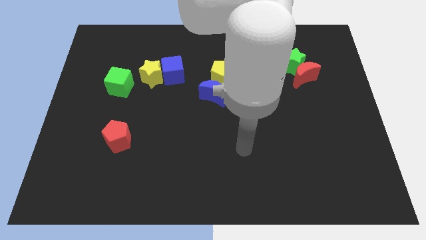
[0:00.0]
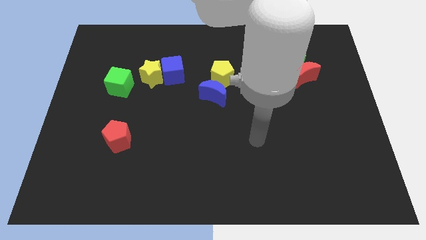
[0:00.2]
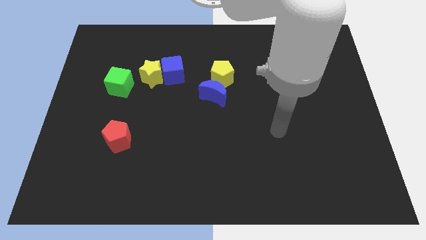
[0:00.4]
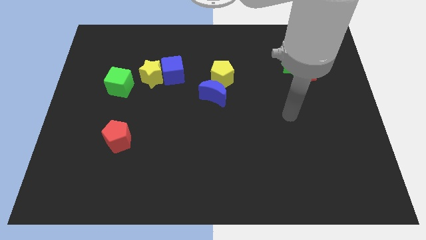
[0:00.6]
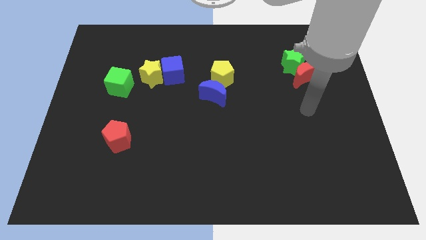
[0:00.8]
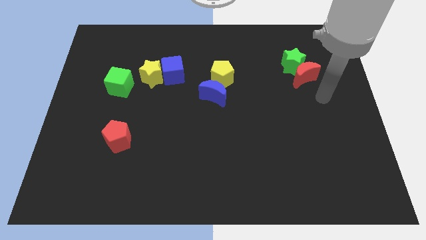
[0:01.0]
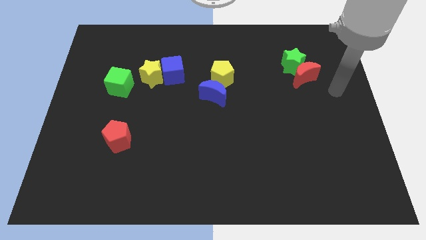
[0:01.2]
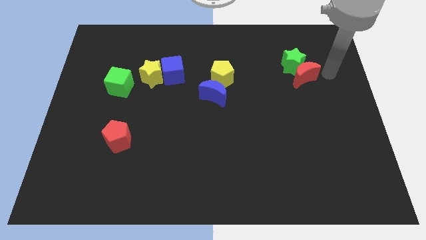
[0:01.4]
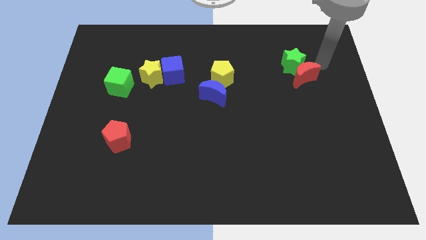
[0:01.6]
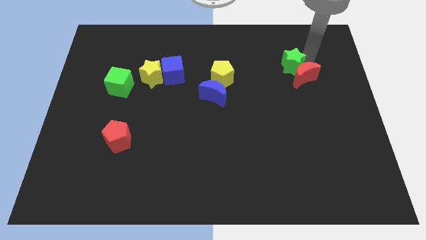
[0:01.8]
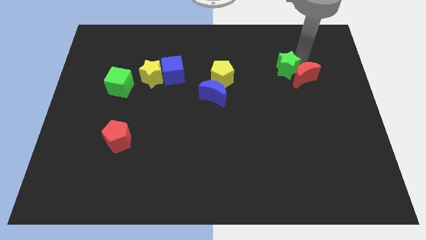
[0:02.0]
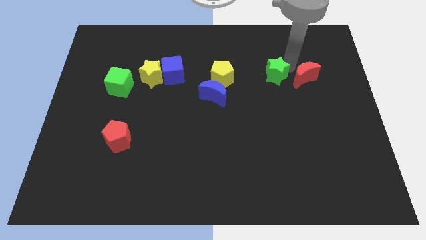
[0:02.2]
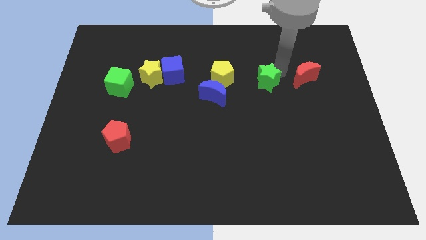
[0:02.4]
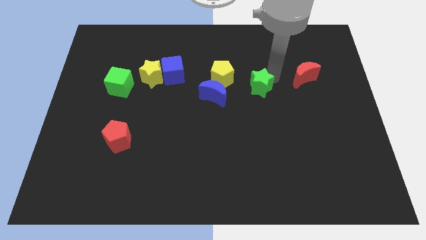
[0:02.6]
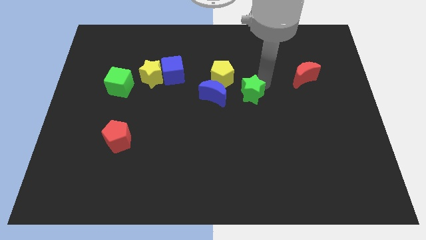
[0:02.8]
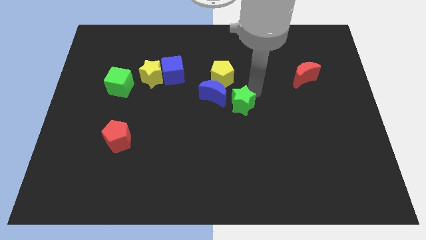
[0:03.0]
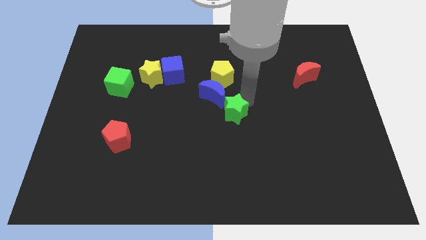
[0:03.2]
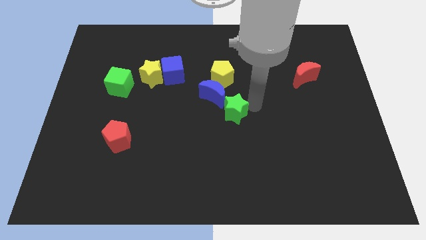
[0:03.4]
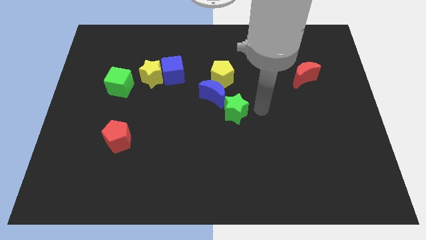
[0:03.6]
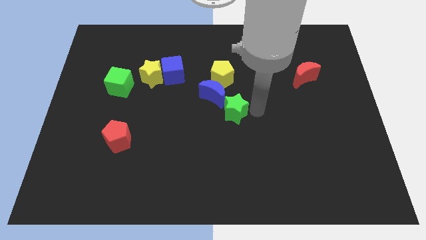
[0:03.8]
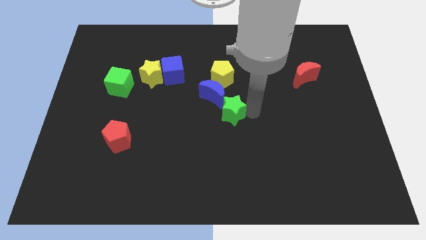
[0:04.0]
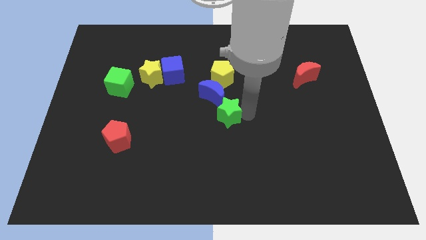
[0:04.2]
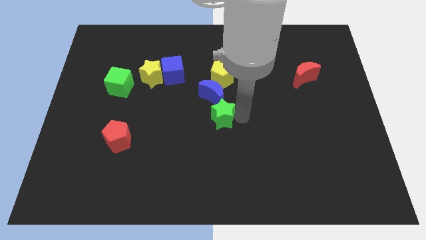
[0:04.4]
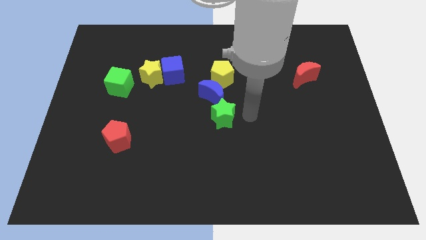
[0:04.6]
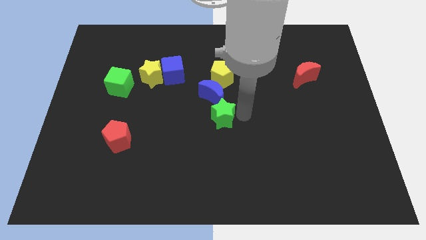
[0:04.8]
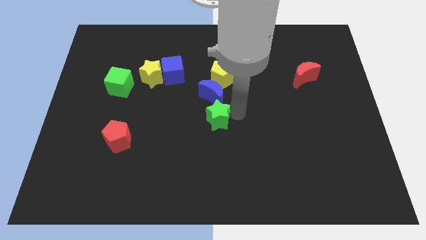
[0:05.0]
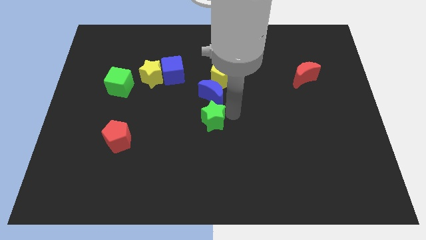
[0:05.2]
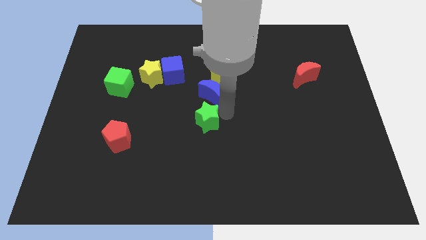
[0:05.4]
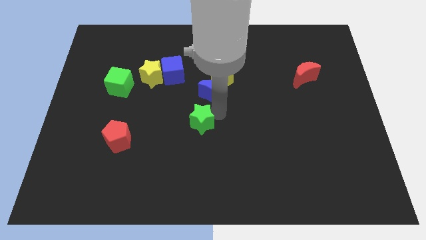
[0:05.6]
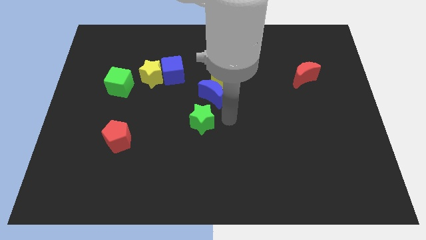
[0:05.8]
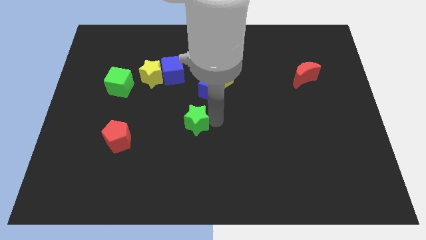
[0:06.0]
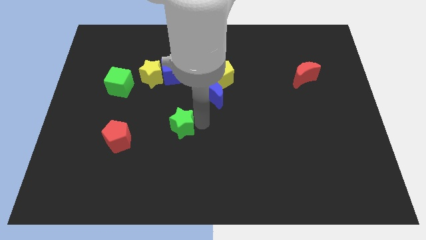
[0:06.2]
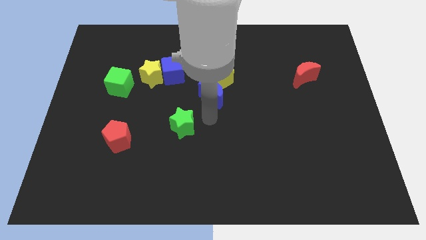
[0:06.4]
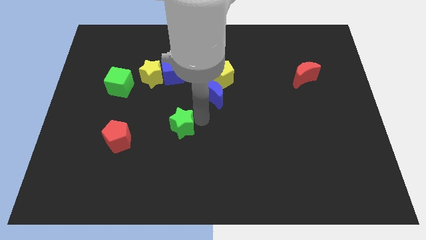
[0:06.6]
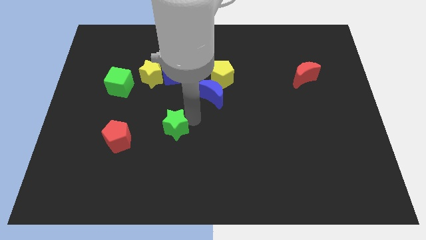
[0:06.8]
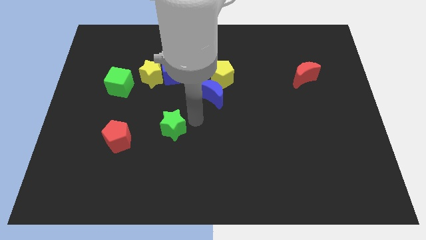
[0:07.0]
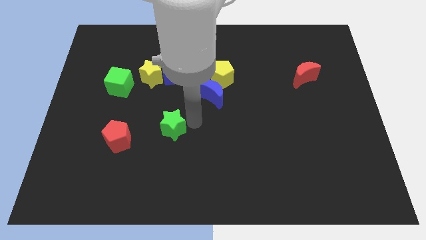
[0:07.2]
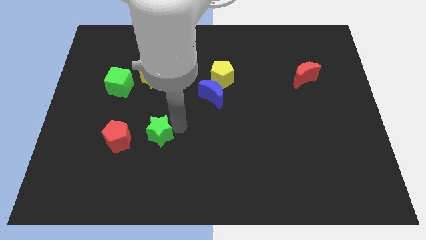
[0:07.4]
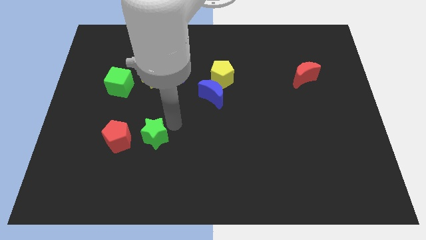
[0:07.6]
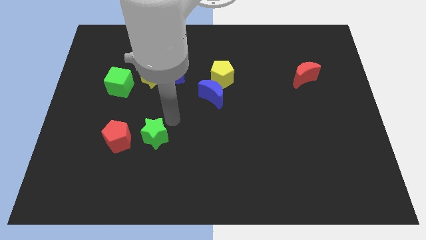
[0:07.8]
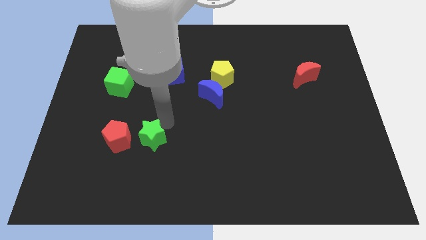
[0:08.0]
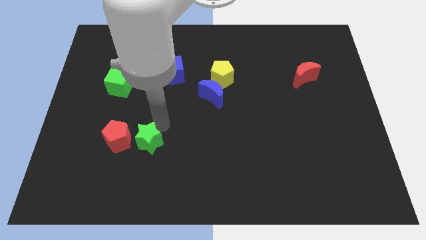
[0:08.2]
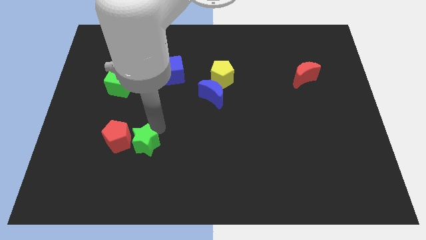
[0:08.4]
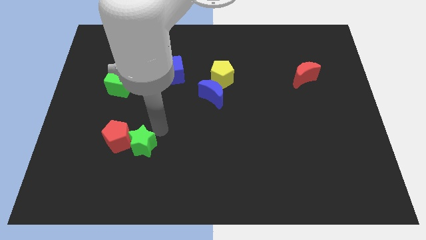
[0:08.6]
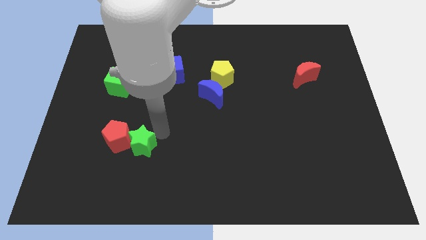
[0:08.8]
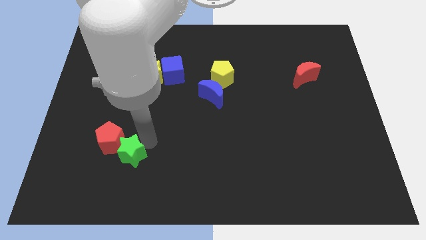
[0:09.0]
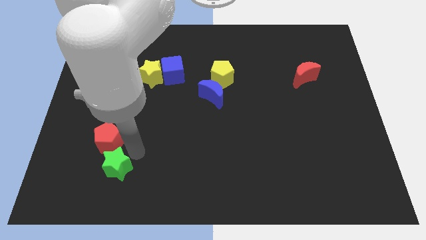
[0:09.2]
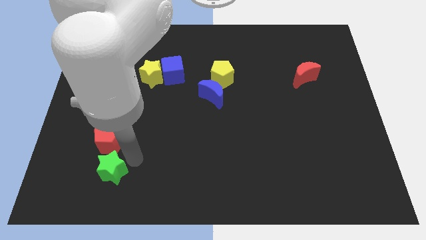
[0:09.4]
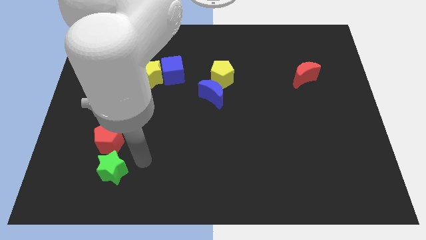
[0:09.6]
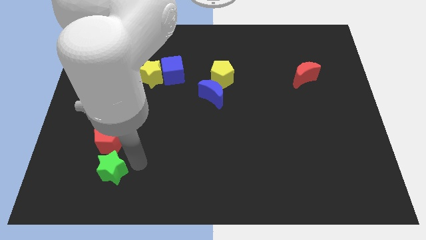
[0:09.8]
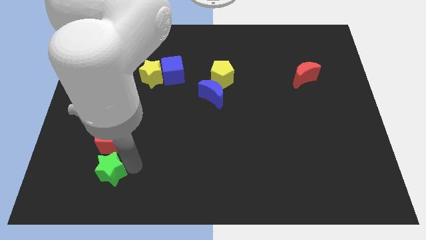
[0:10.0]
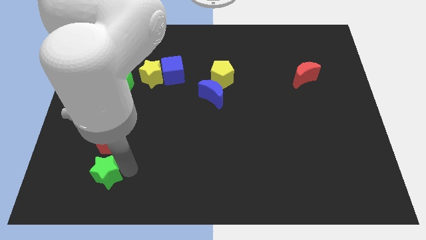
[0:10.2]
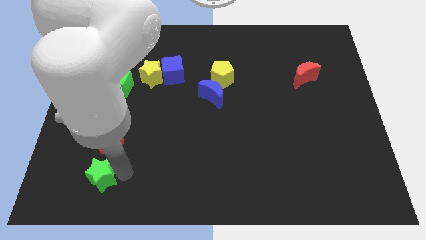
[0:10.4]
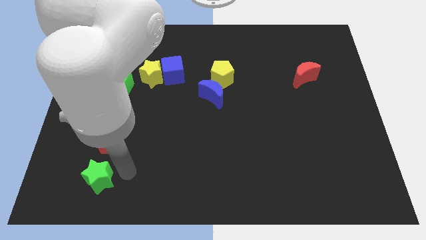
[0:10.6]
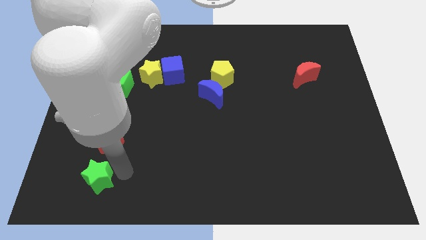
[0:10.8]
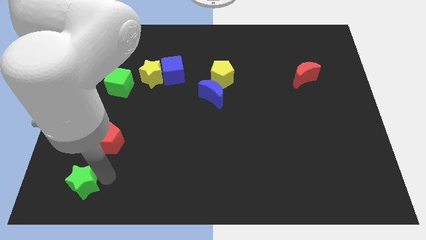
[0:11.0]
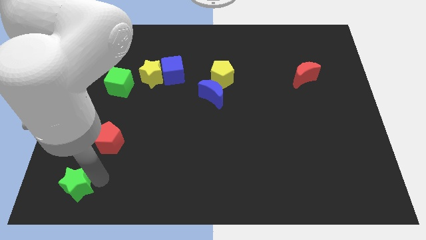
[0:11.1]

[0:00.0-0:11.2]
slide the green star to the bottom left of the board
